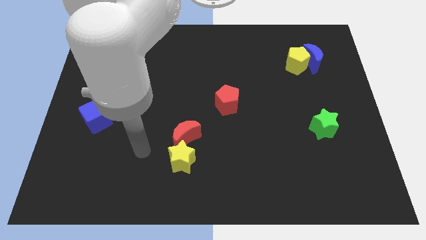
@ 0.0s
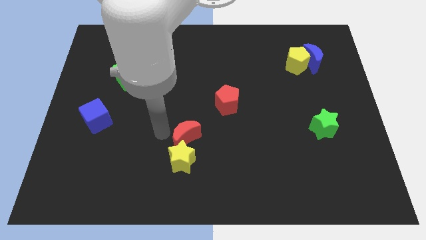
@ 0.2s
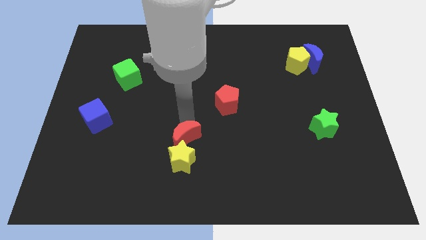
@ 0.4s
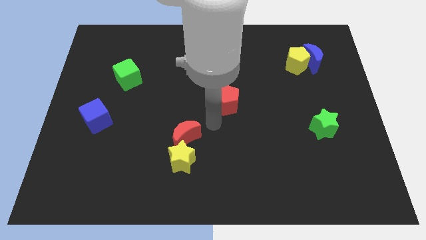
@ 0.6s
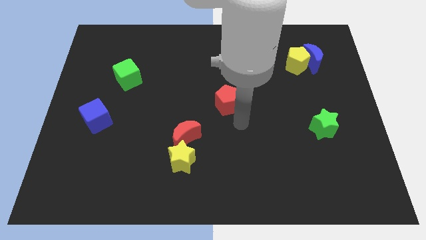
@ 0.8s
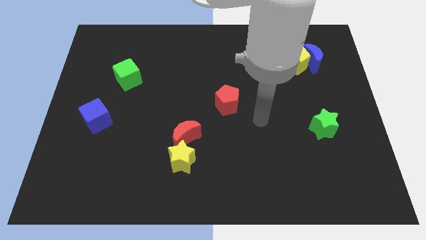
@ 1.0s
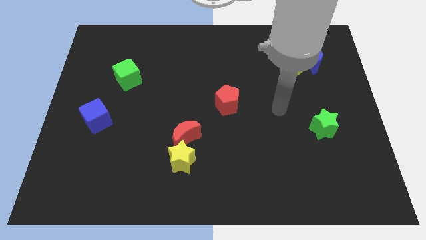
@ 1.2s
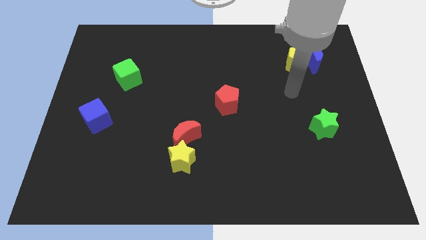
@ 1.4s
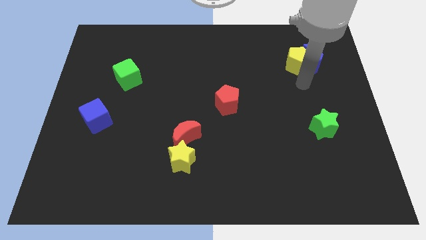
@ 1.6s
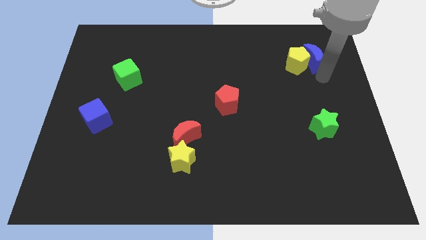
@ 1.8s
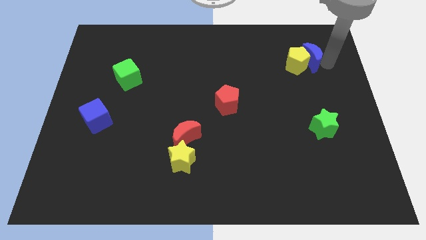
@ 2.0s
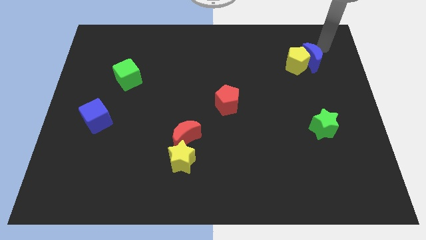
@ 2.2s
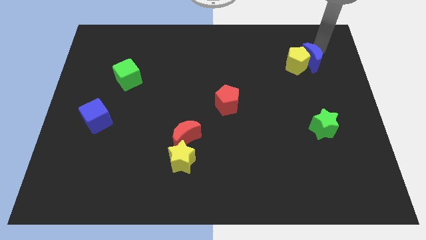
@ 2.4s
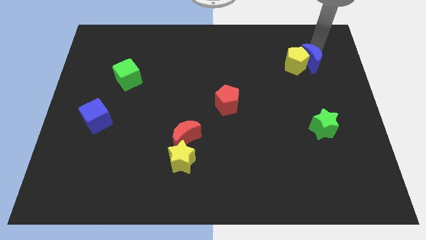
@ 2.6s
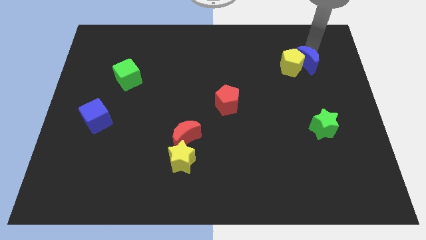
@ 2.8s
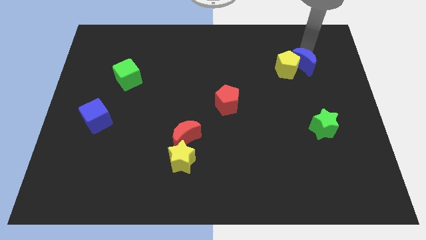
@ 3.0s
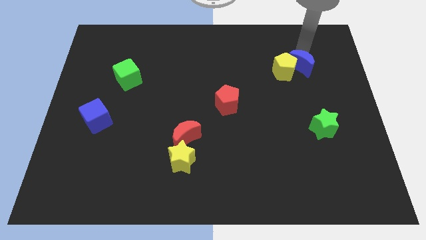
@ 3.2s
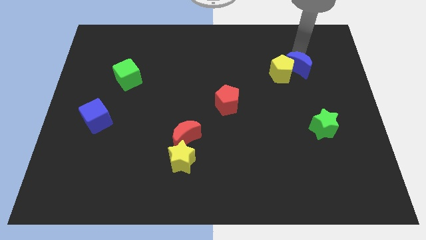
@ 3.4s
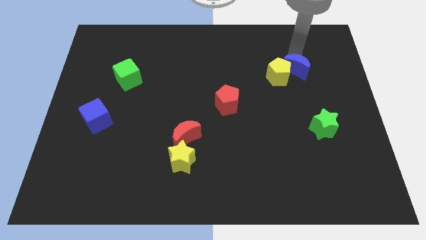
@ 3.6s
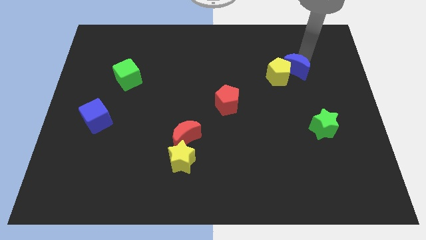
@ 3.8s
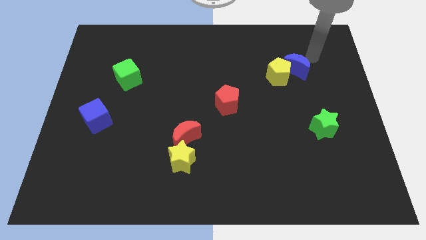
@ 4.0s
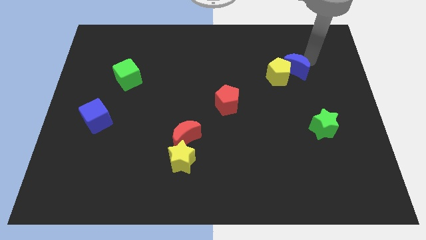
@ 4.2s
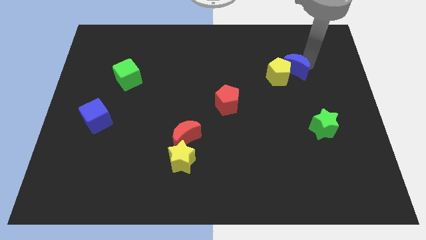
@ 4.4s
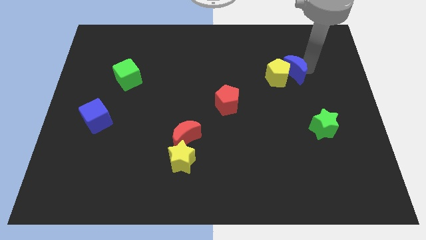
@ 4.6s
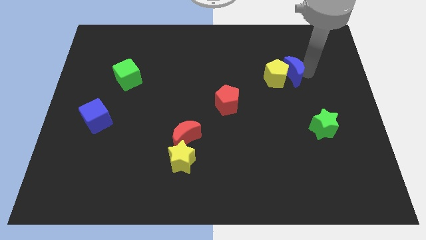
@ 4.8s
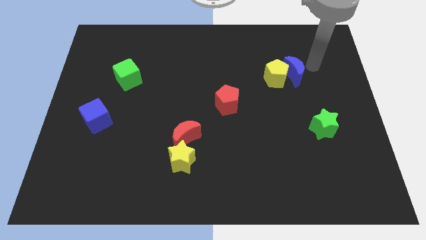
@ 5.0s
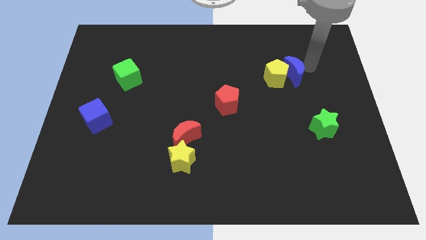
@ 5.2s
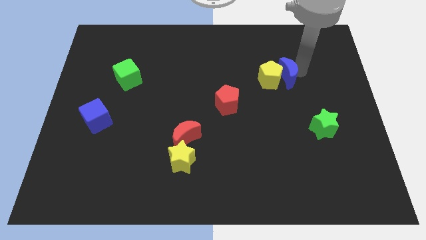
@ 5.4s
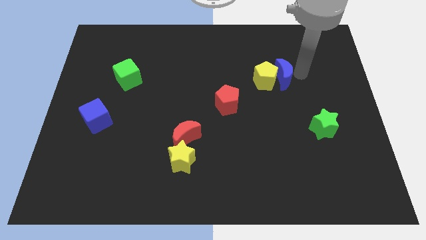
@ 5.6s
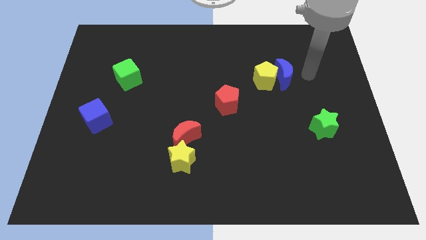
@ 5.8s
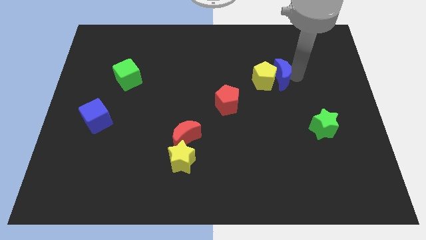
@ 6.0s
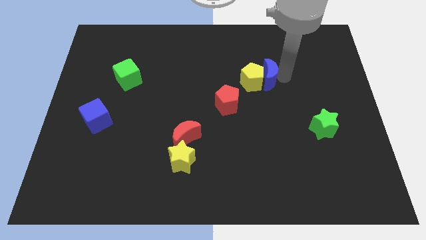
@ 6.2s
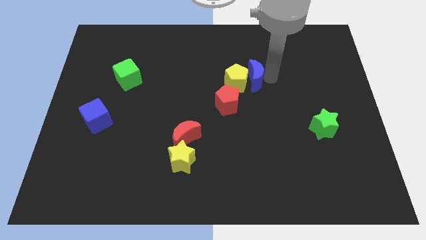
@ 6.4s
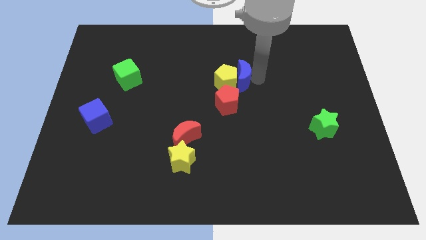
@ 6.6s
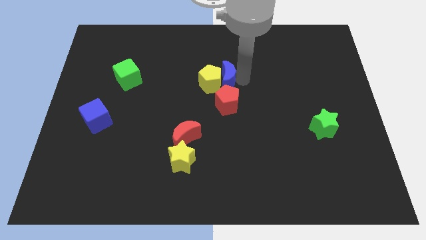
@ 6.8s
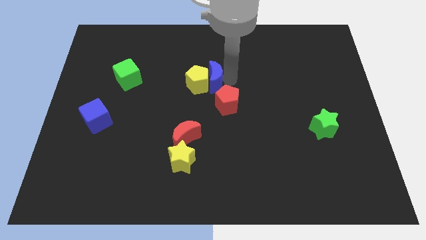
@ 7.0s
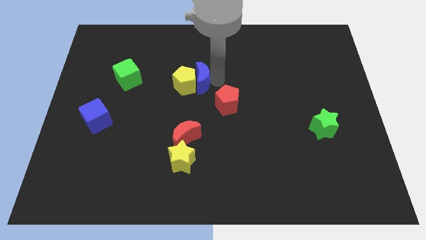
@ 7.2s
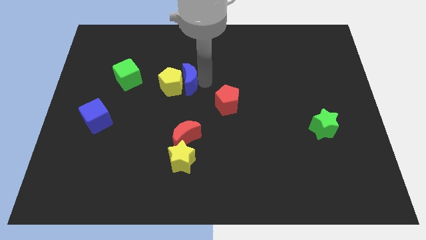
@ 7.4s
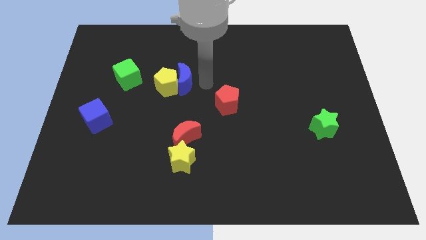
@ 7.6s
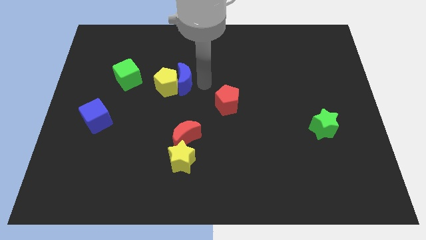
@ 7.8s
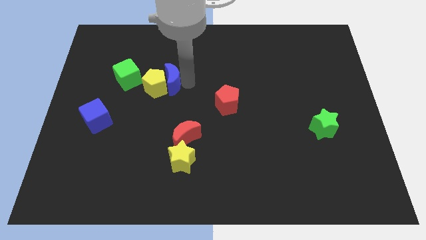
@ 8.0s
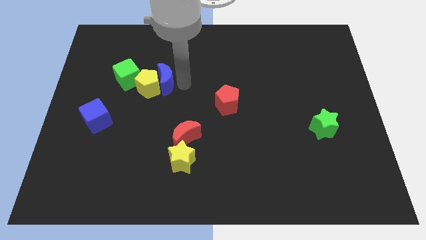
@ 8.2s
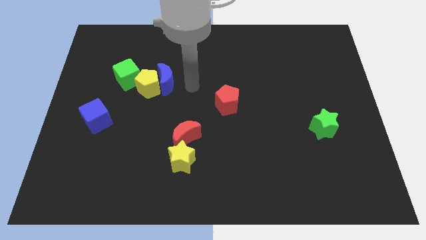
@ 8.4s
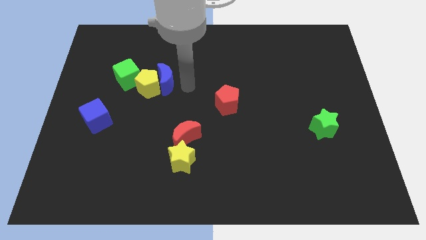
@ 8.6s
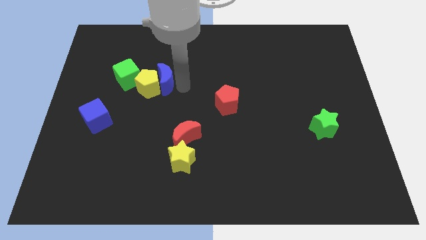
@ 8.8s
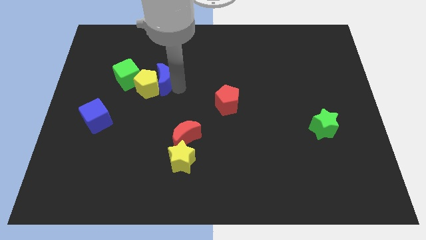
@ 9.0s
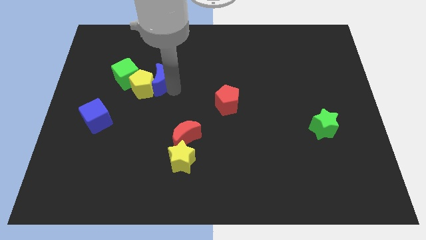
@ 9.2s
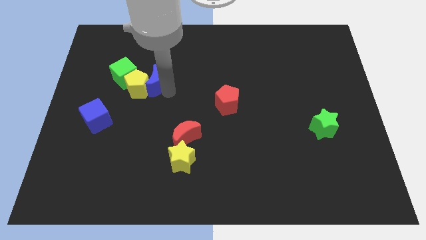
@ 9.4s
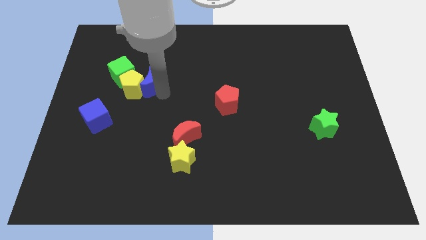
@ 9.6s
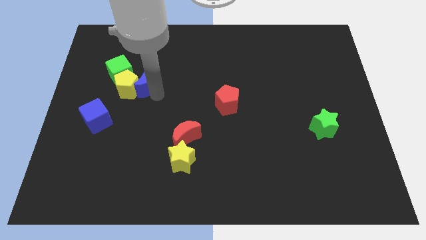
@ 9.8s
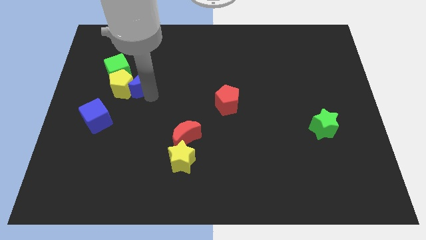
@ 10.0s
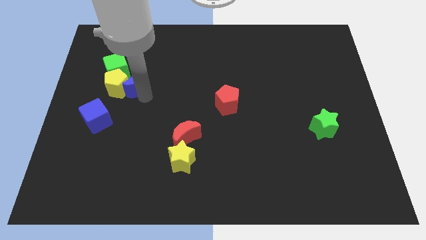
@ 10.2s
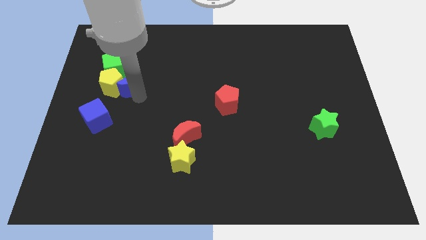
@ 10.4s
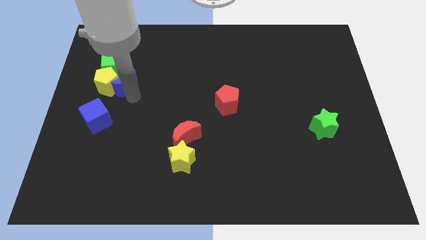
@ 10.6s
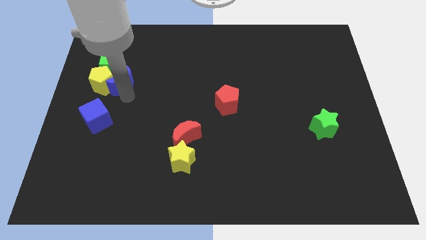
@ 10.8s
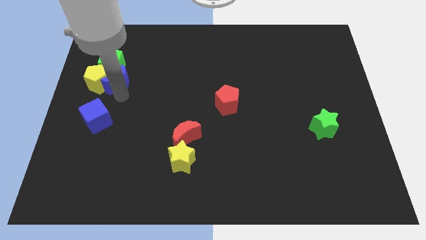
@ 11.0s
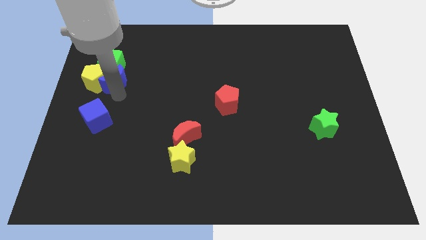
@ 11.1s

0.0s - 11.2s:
slide the blue moon towards the green cube

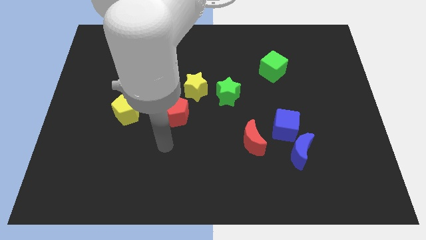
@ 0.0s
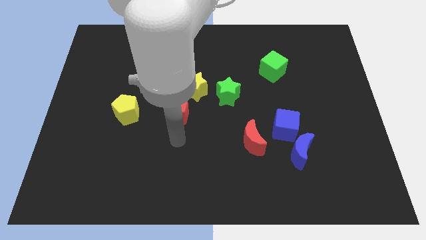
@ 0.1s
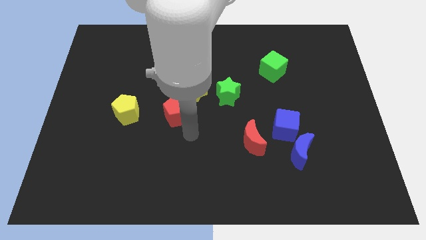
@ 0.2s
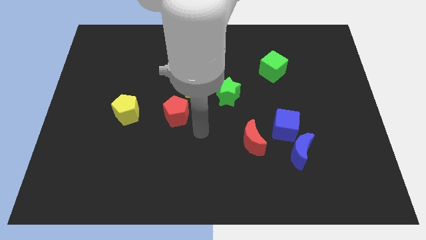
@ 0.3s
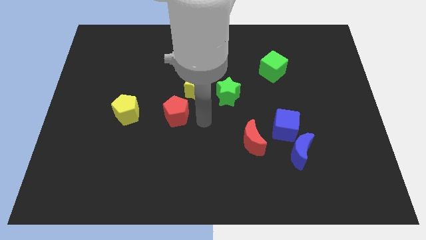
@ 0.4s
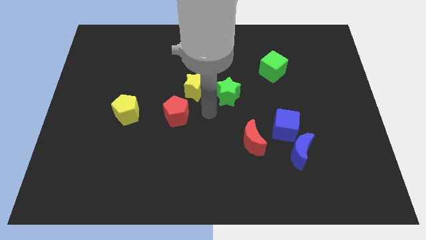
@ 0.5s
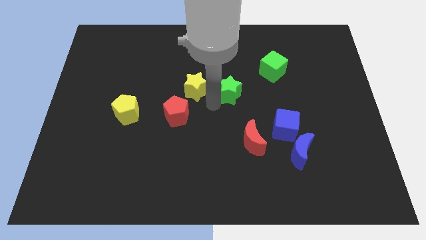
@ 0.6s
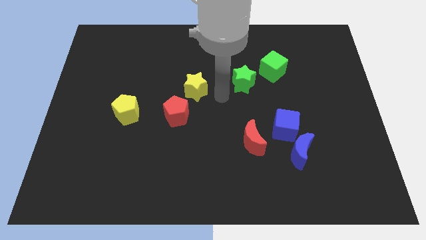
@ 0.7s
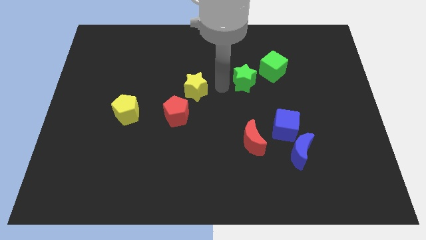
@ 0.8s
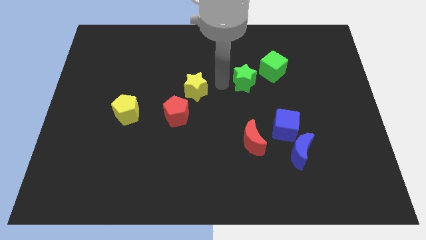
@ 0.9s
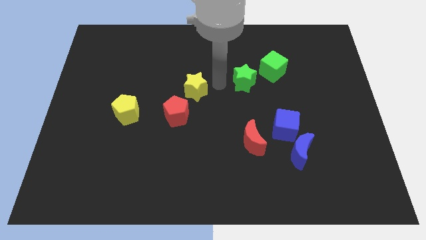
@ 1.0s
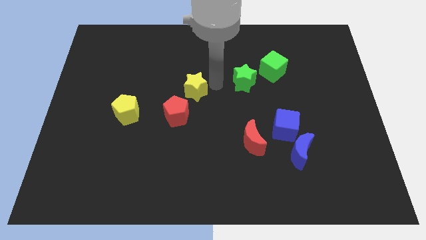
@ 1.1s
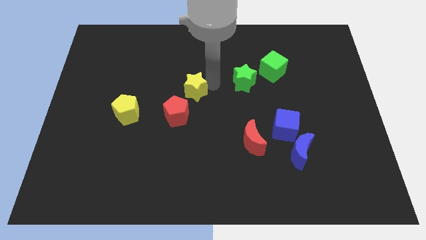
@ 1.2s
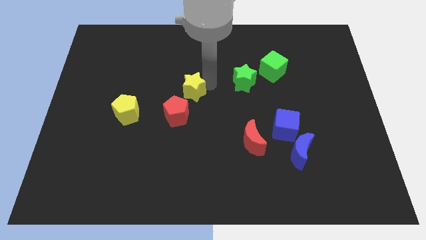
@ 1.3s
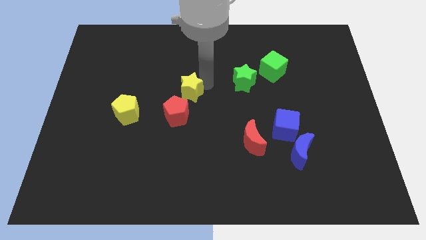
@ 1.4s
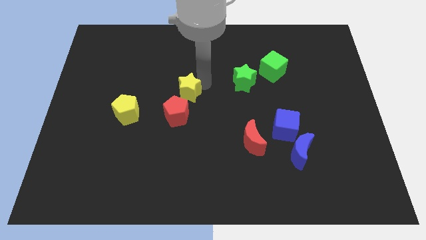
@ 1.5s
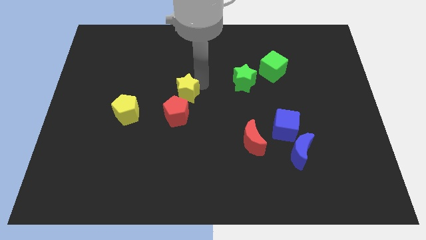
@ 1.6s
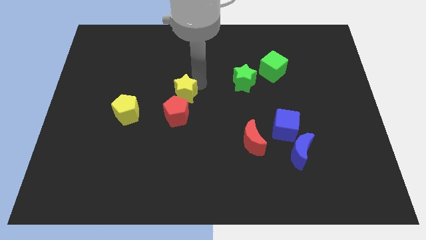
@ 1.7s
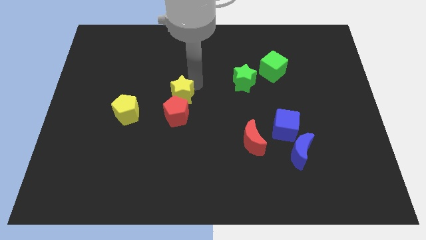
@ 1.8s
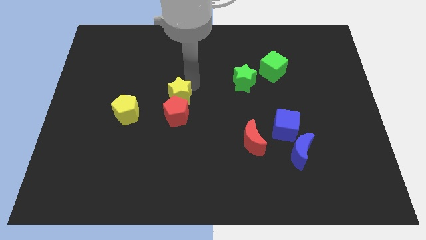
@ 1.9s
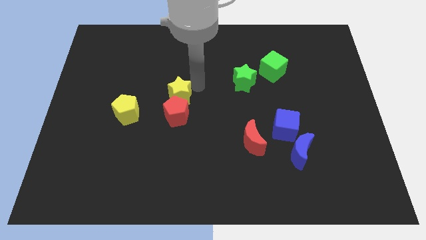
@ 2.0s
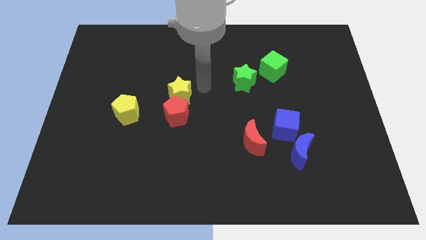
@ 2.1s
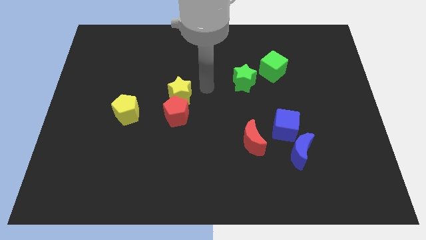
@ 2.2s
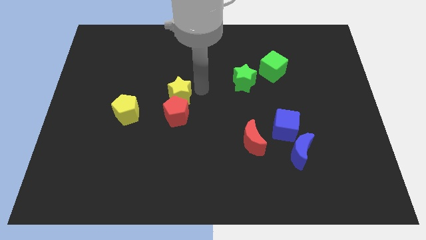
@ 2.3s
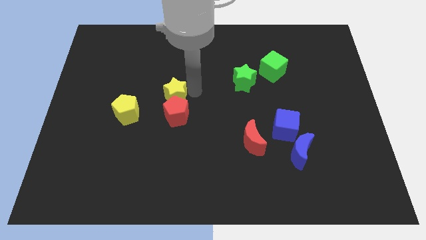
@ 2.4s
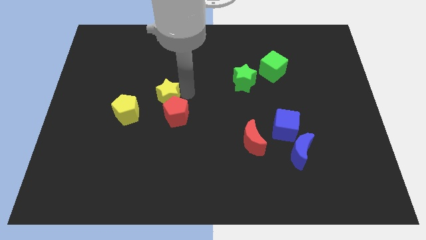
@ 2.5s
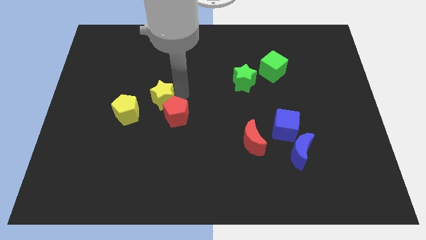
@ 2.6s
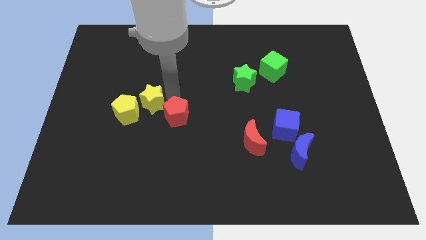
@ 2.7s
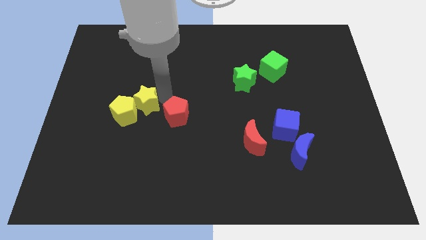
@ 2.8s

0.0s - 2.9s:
slide the yellow star close to the yellow pentagon
